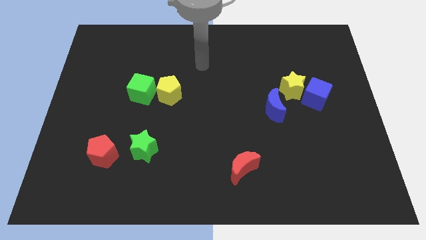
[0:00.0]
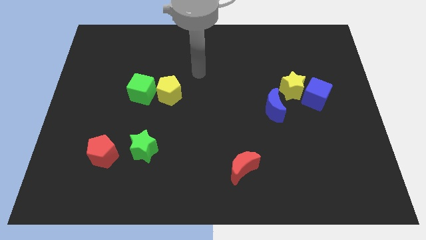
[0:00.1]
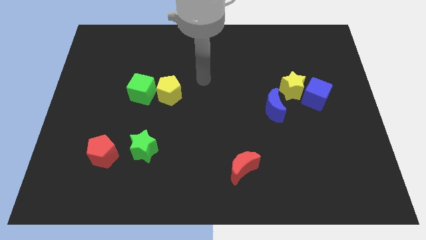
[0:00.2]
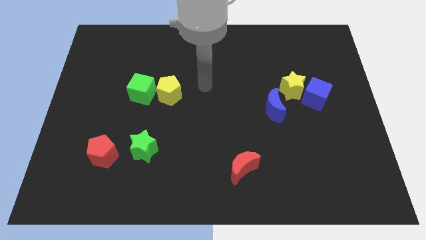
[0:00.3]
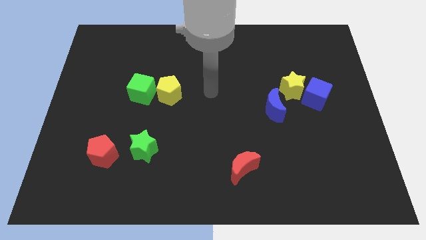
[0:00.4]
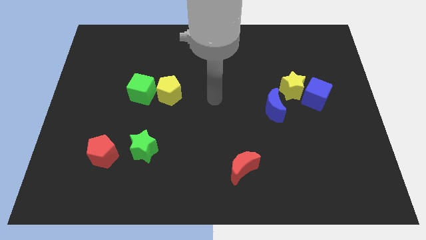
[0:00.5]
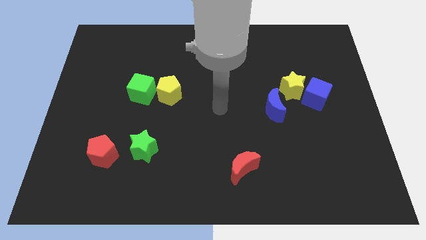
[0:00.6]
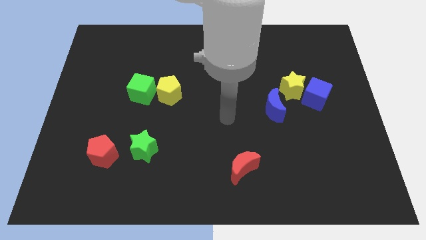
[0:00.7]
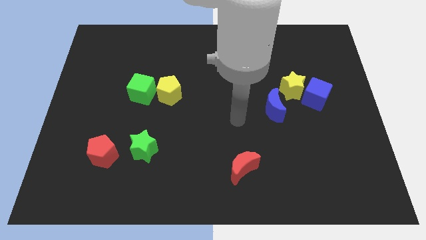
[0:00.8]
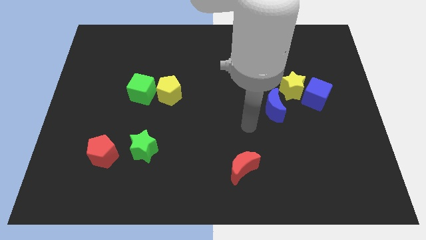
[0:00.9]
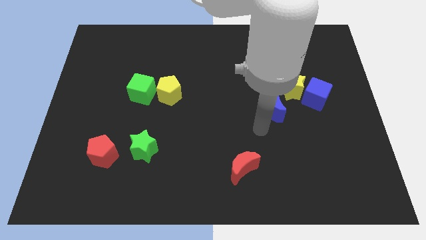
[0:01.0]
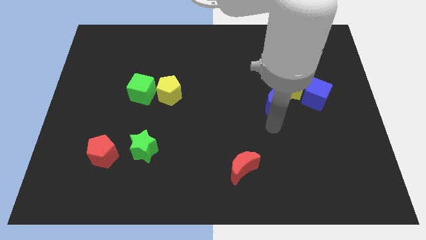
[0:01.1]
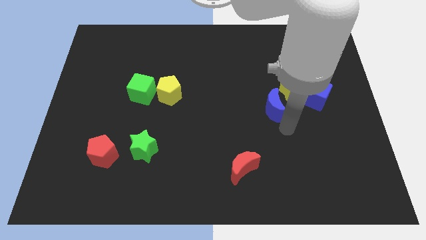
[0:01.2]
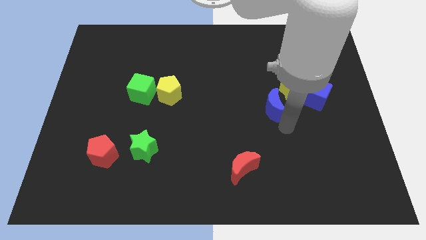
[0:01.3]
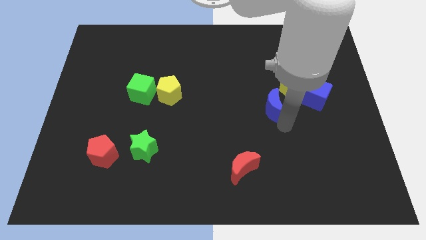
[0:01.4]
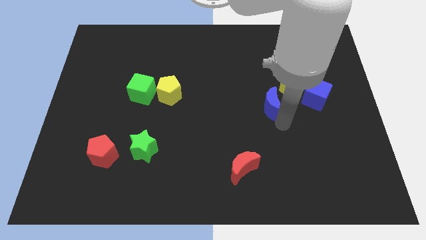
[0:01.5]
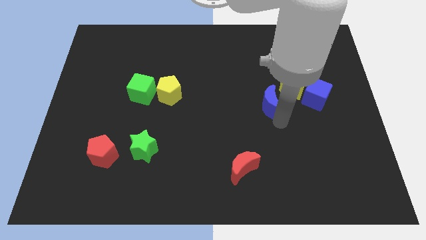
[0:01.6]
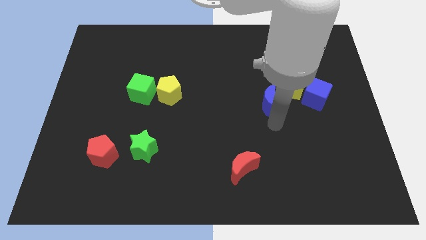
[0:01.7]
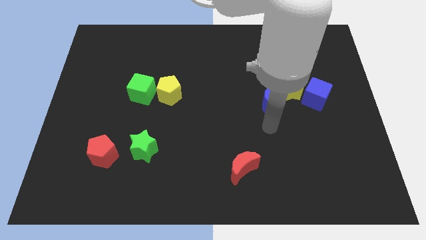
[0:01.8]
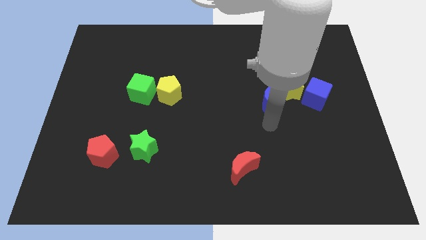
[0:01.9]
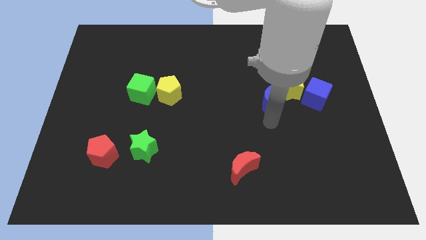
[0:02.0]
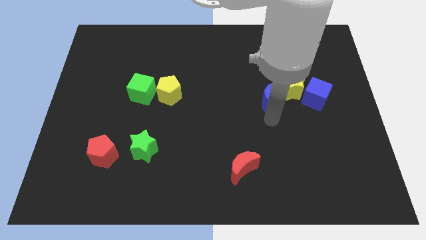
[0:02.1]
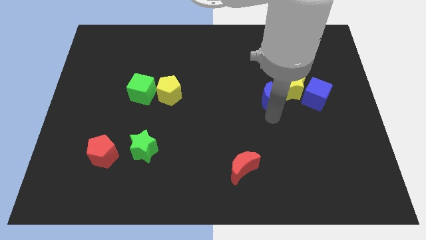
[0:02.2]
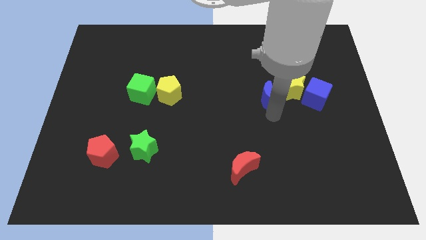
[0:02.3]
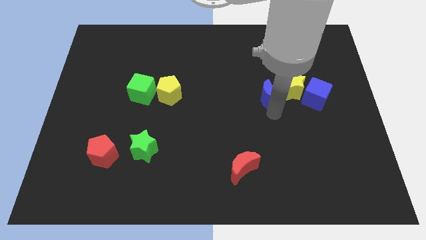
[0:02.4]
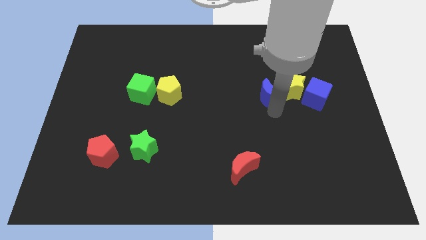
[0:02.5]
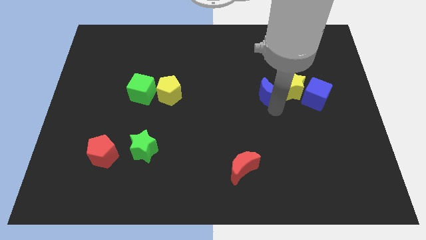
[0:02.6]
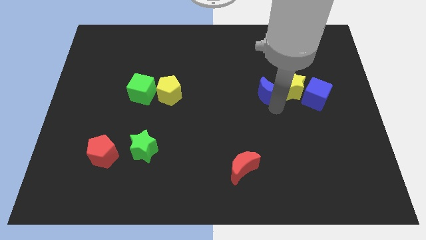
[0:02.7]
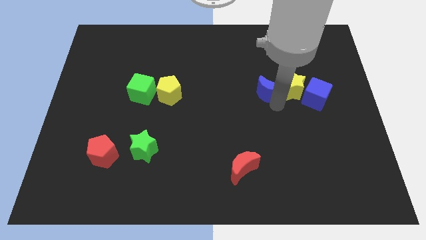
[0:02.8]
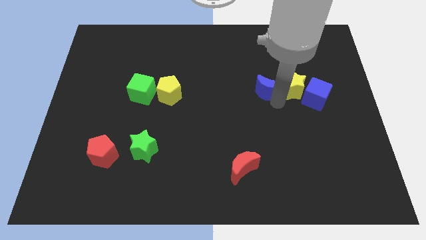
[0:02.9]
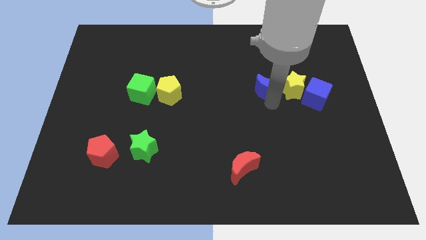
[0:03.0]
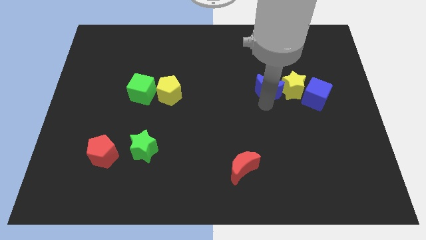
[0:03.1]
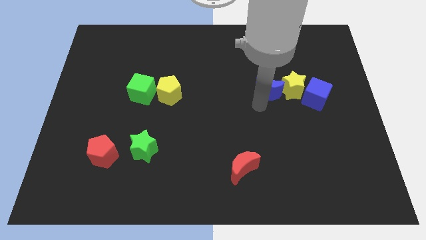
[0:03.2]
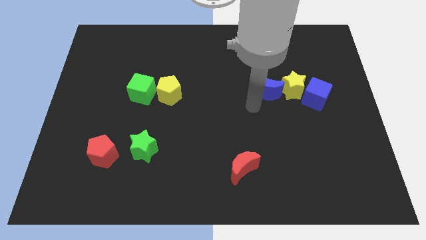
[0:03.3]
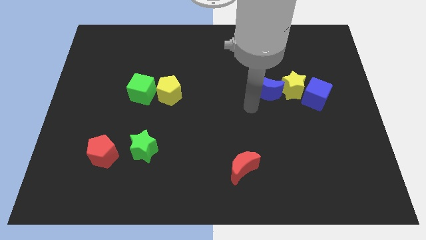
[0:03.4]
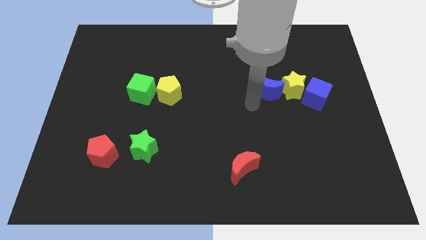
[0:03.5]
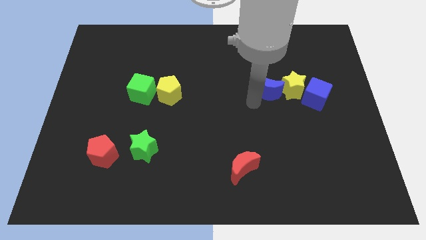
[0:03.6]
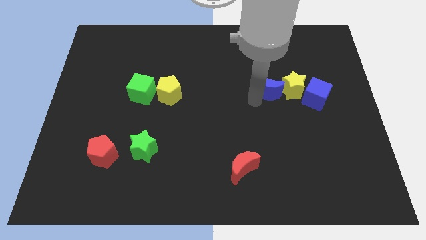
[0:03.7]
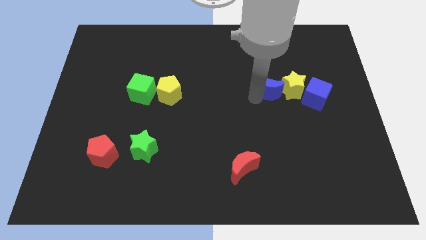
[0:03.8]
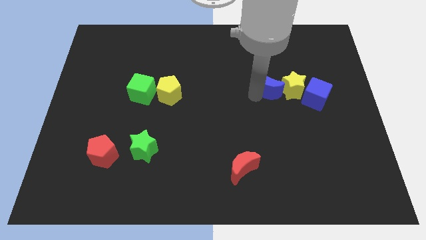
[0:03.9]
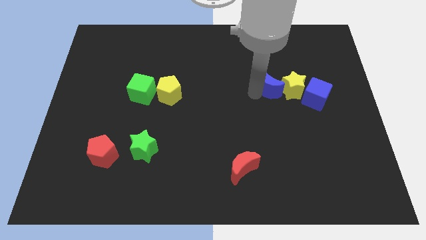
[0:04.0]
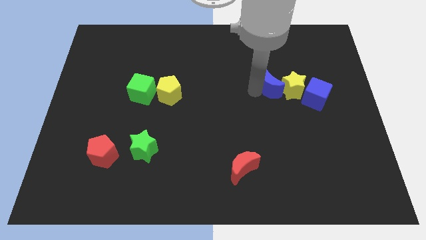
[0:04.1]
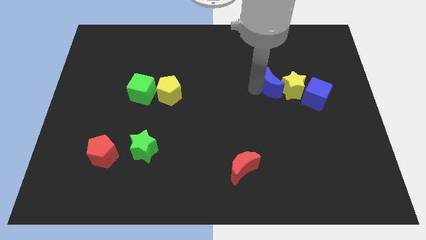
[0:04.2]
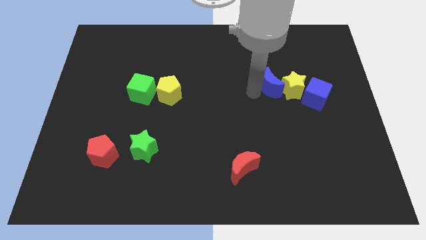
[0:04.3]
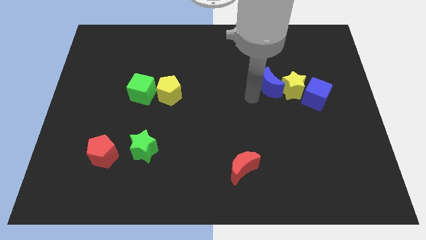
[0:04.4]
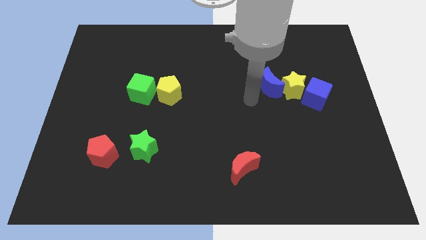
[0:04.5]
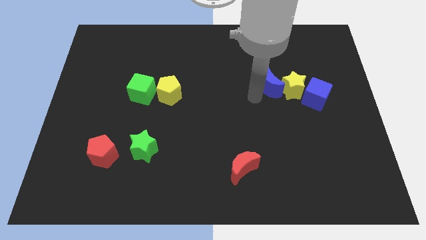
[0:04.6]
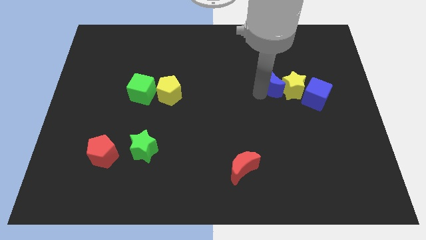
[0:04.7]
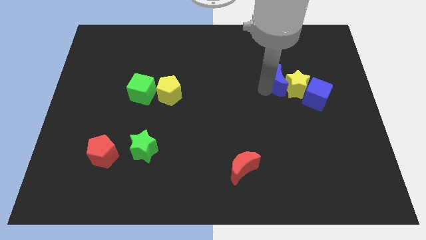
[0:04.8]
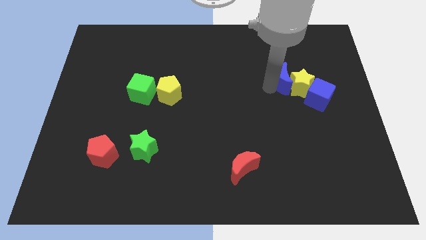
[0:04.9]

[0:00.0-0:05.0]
move the blue moon a little bit up and right

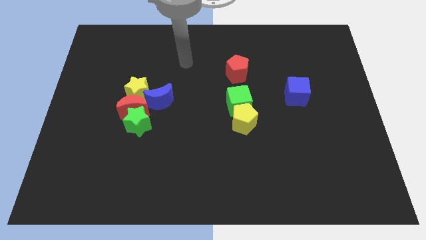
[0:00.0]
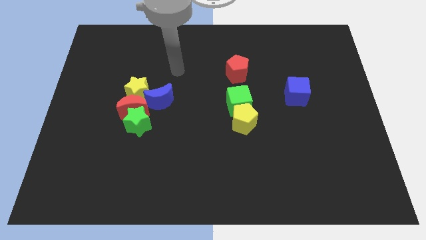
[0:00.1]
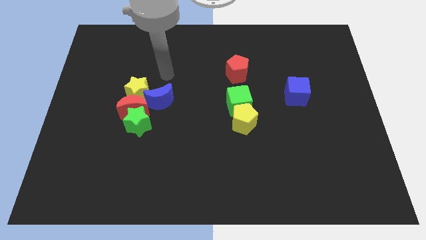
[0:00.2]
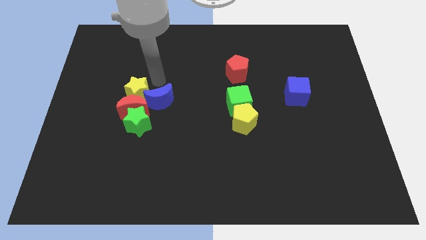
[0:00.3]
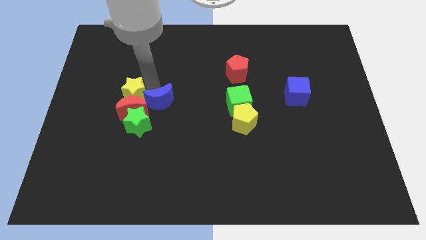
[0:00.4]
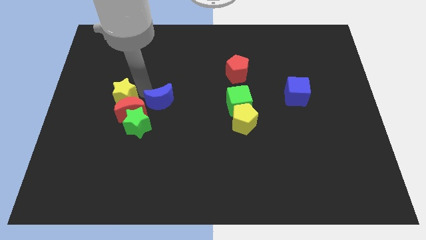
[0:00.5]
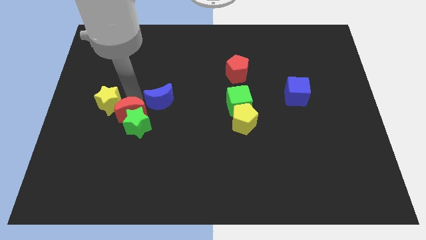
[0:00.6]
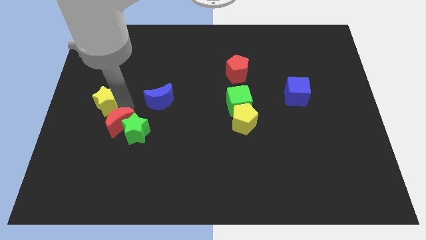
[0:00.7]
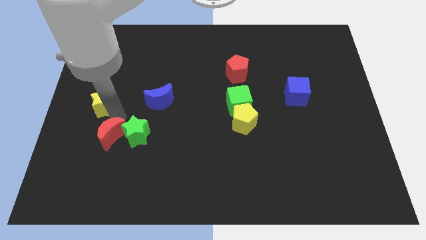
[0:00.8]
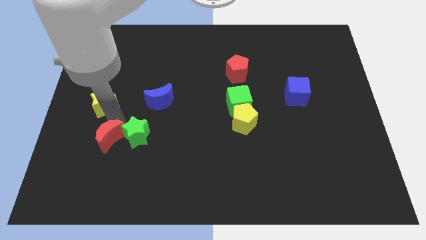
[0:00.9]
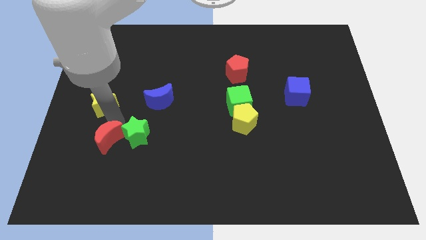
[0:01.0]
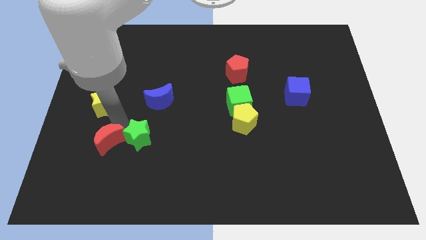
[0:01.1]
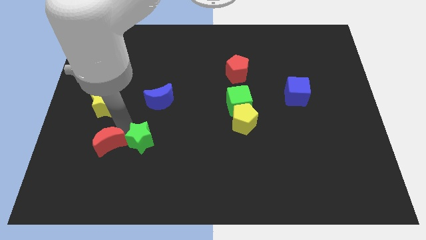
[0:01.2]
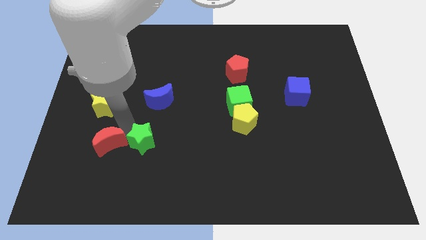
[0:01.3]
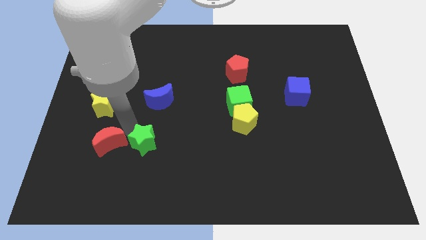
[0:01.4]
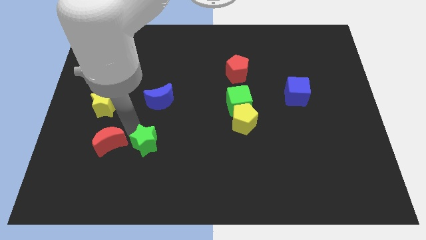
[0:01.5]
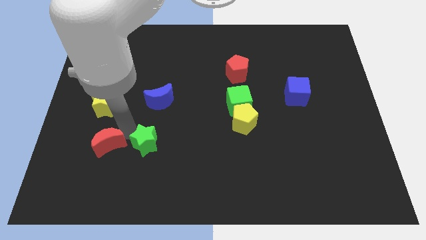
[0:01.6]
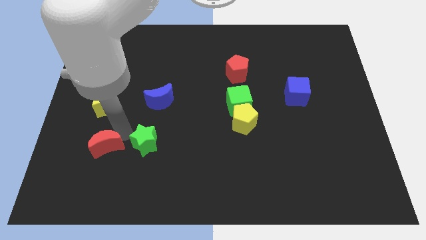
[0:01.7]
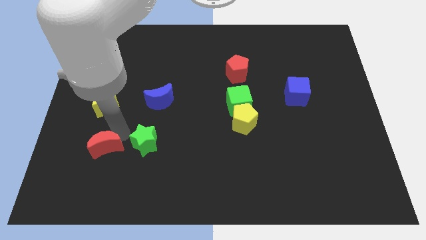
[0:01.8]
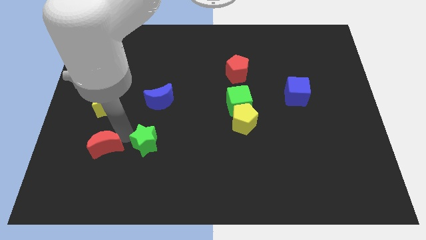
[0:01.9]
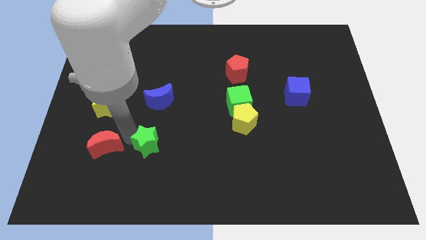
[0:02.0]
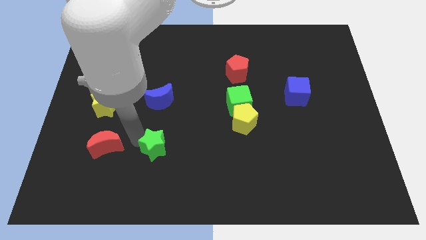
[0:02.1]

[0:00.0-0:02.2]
push the green star downwards and to the right slightly

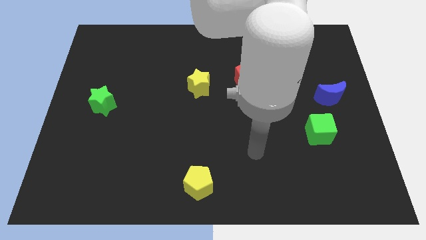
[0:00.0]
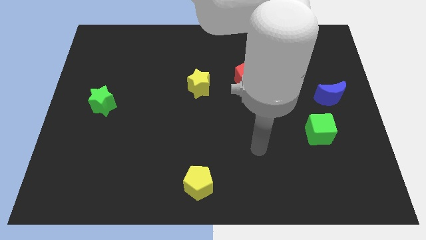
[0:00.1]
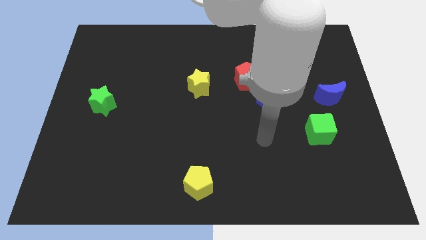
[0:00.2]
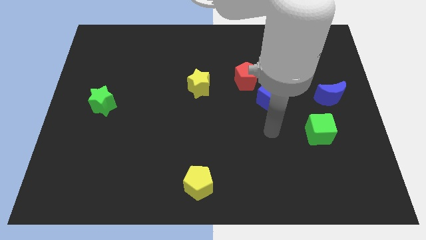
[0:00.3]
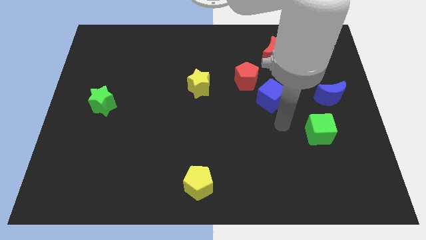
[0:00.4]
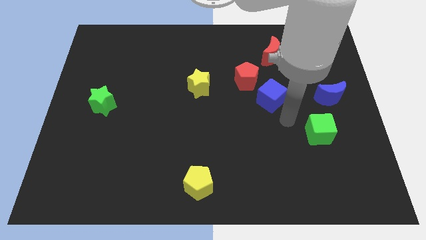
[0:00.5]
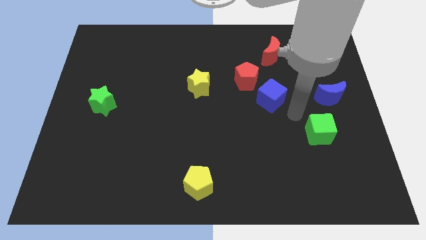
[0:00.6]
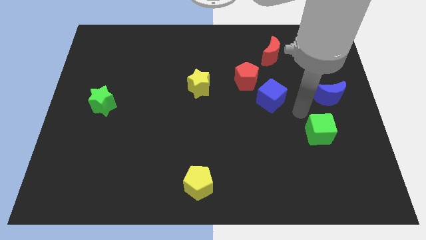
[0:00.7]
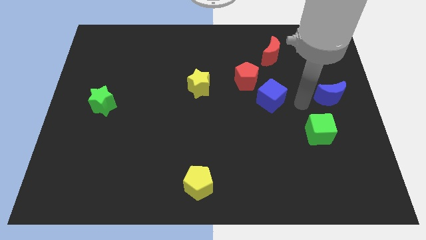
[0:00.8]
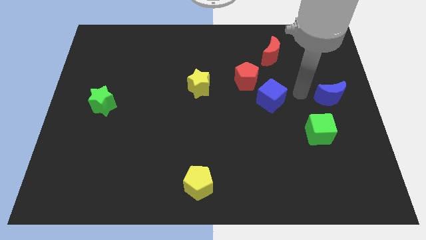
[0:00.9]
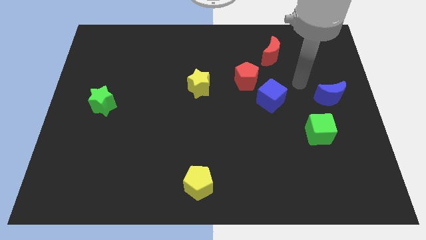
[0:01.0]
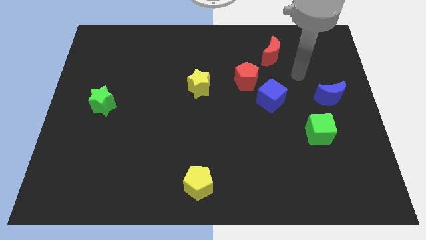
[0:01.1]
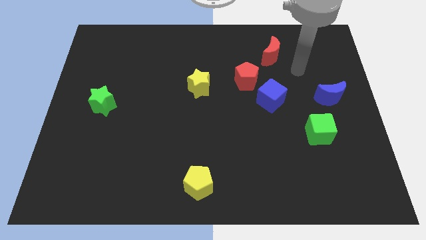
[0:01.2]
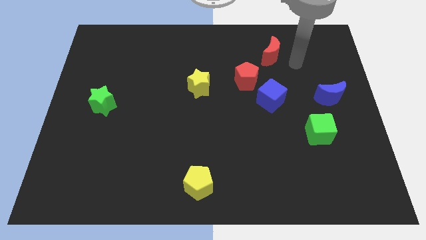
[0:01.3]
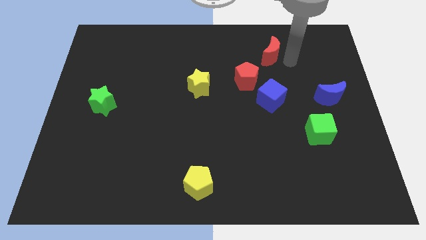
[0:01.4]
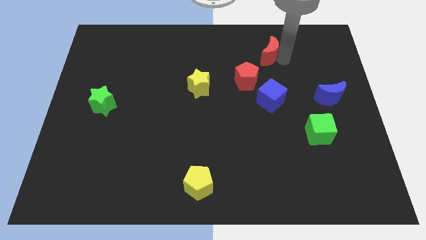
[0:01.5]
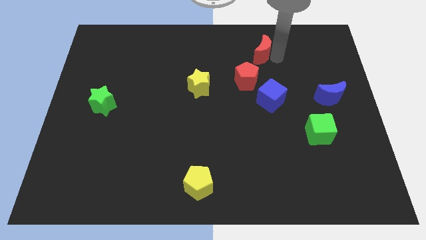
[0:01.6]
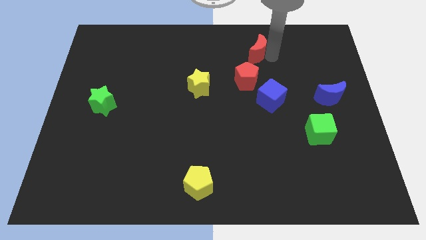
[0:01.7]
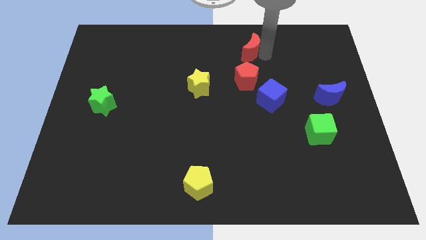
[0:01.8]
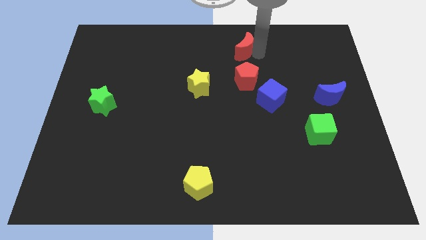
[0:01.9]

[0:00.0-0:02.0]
push the red moon left slightly
